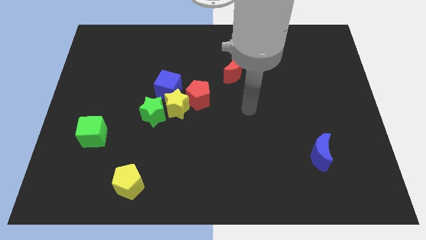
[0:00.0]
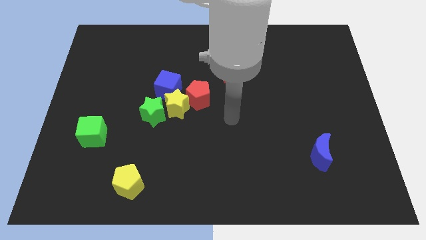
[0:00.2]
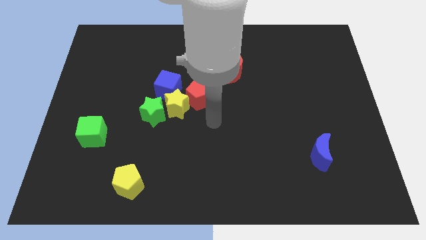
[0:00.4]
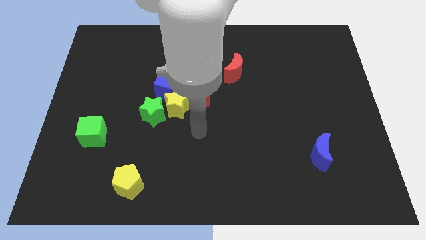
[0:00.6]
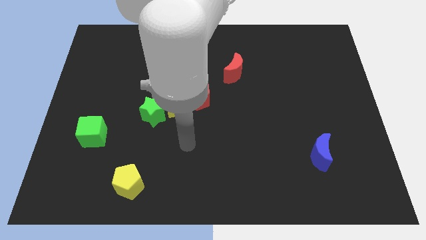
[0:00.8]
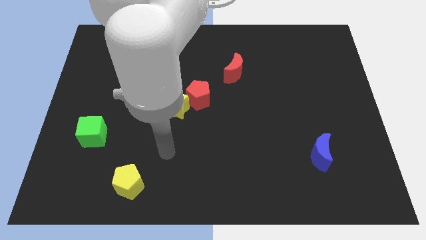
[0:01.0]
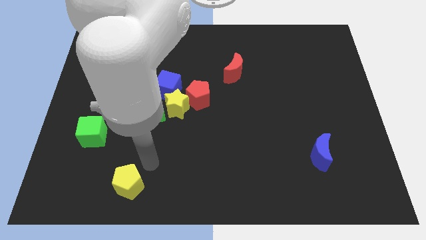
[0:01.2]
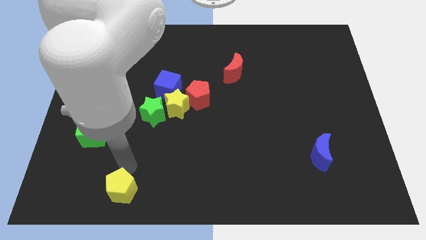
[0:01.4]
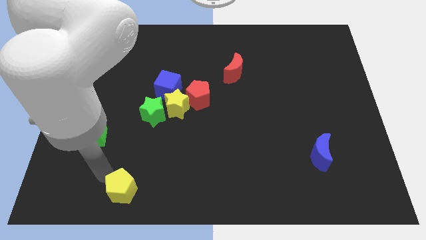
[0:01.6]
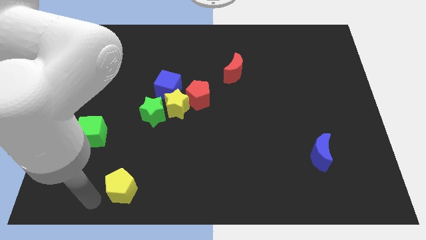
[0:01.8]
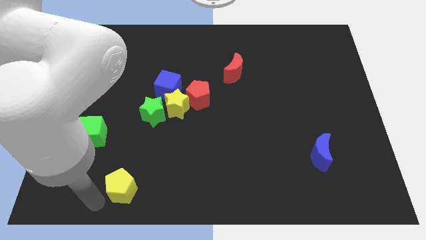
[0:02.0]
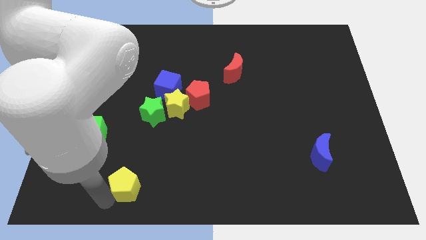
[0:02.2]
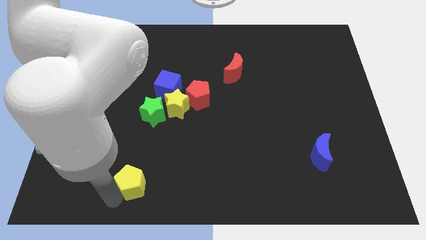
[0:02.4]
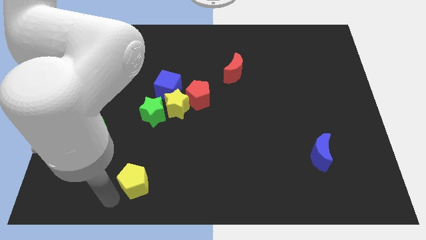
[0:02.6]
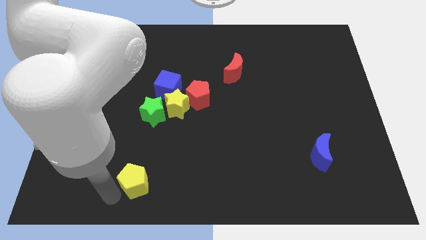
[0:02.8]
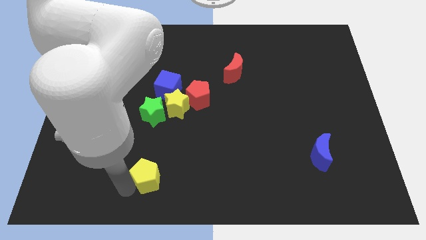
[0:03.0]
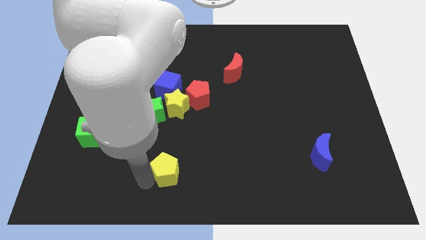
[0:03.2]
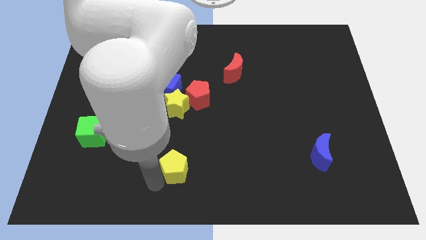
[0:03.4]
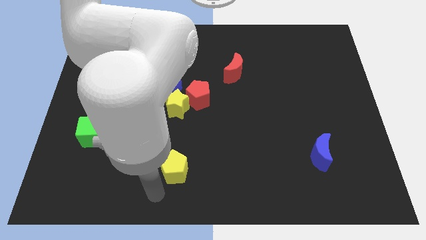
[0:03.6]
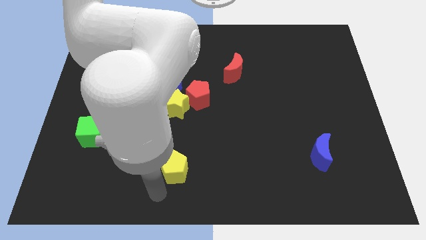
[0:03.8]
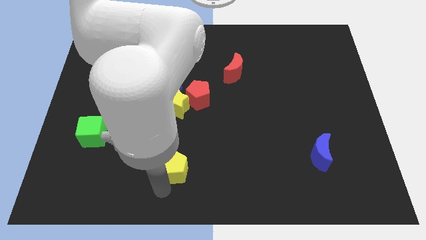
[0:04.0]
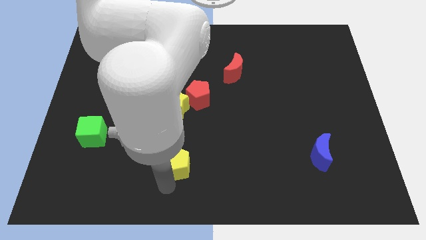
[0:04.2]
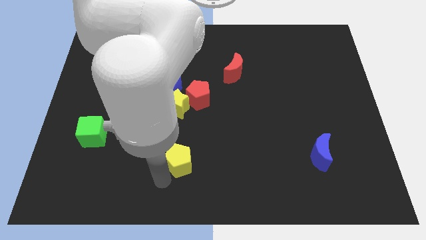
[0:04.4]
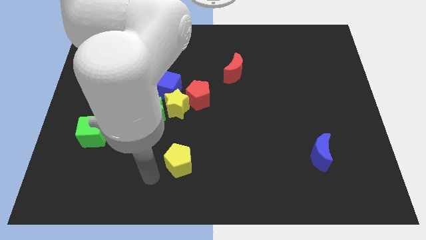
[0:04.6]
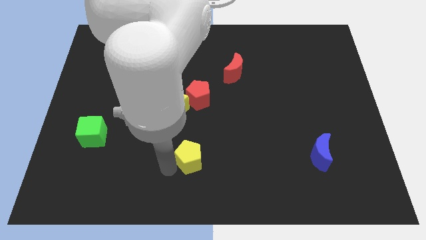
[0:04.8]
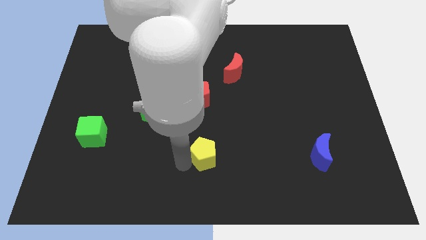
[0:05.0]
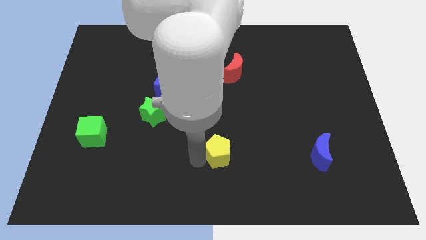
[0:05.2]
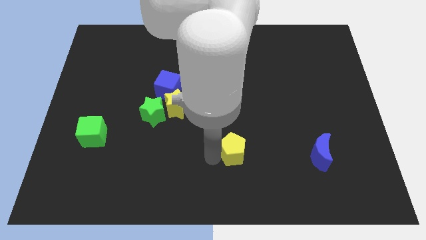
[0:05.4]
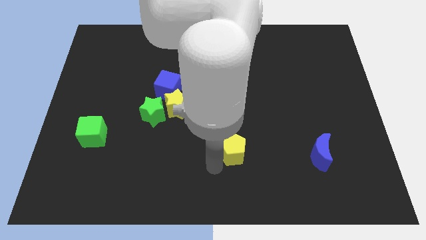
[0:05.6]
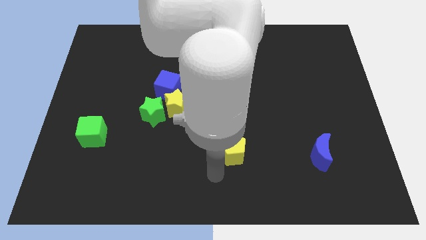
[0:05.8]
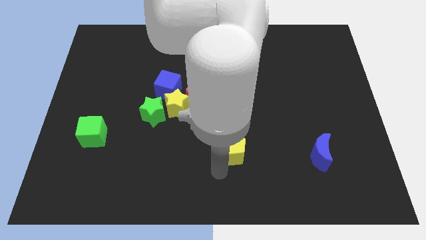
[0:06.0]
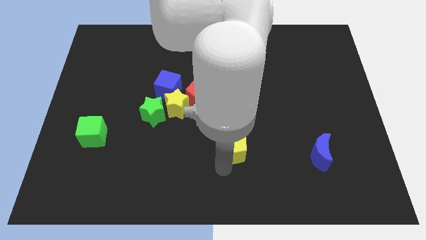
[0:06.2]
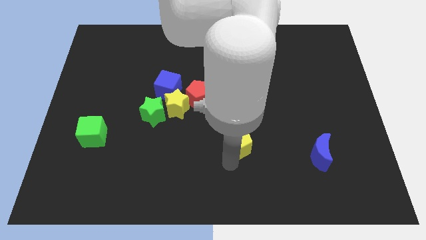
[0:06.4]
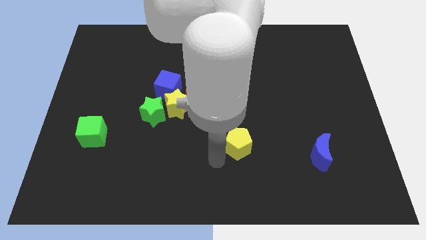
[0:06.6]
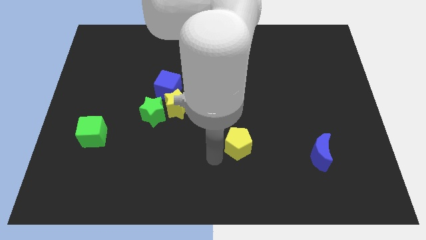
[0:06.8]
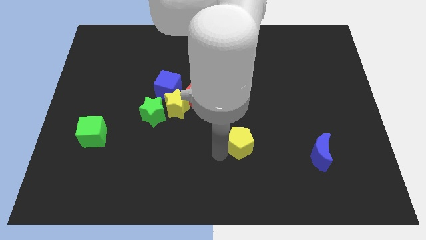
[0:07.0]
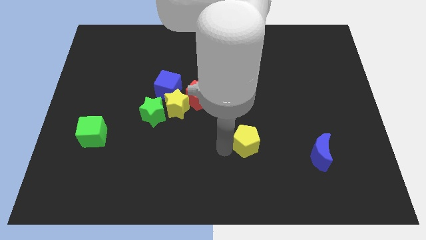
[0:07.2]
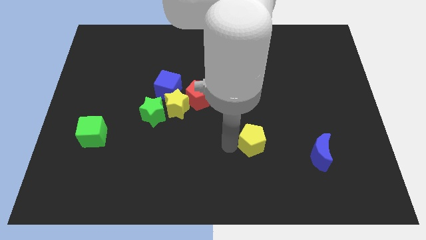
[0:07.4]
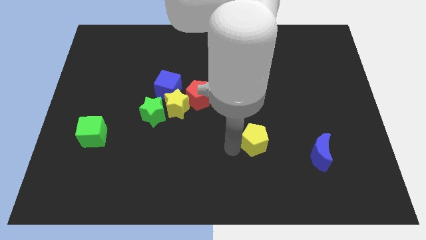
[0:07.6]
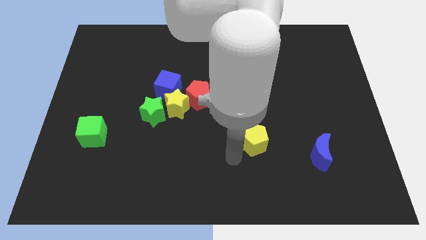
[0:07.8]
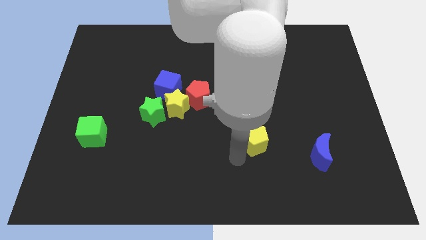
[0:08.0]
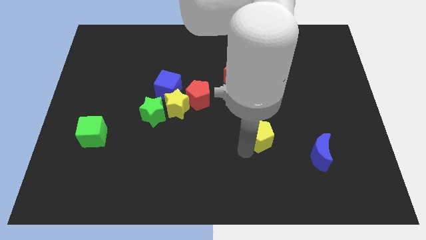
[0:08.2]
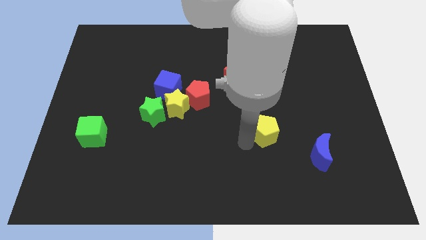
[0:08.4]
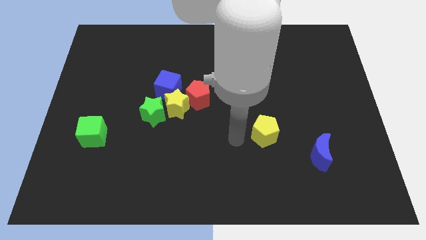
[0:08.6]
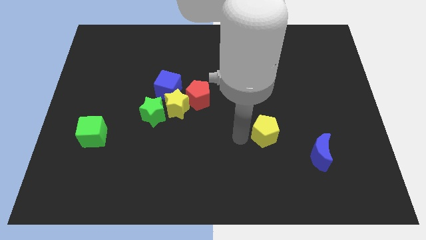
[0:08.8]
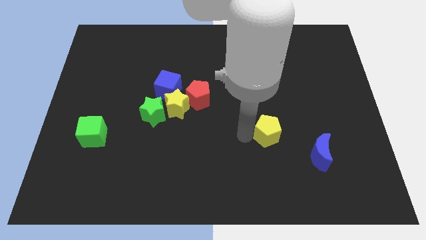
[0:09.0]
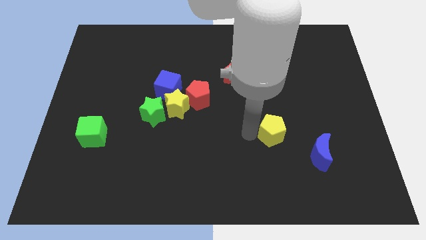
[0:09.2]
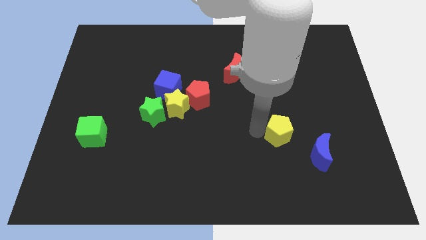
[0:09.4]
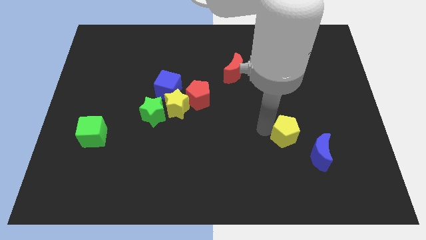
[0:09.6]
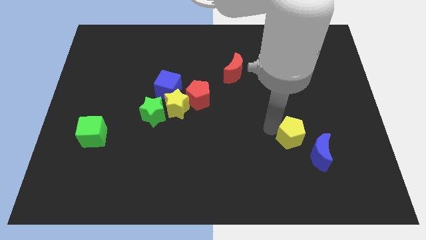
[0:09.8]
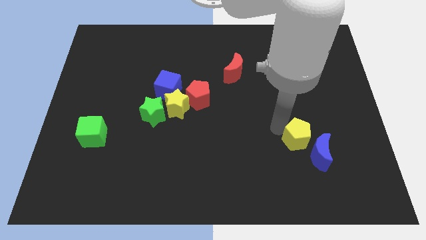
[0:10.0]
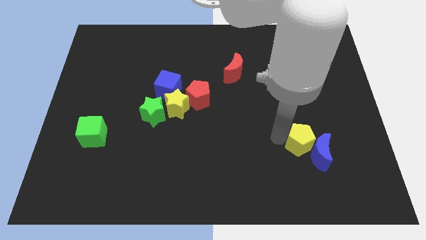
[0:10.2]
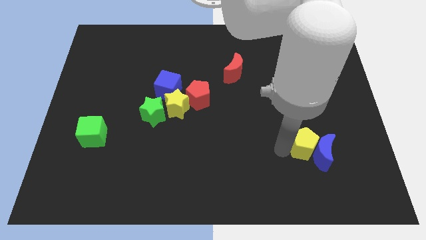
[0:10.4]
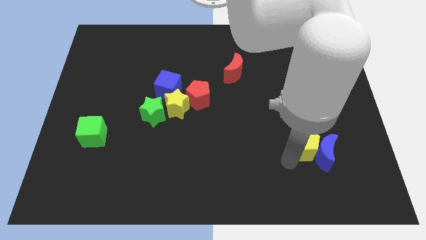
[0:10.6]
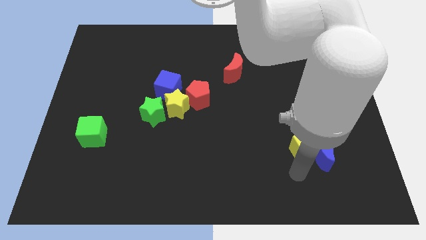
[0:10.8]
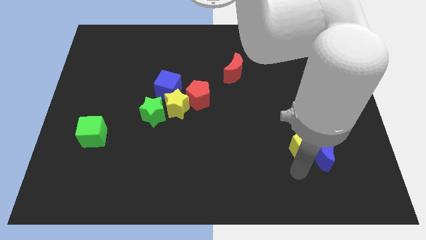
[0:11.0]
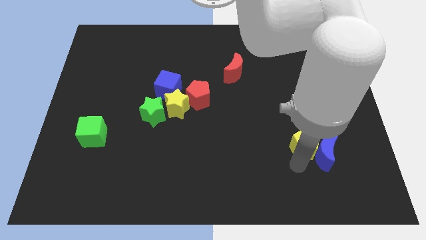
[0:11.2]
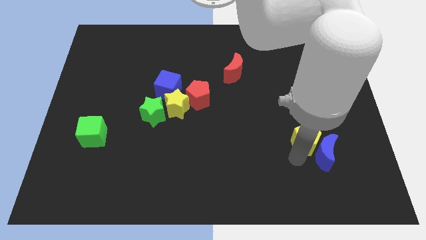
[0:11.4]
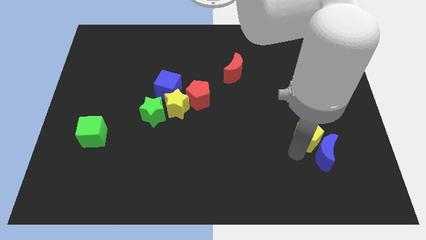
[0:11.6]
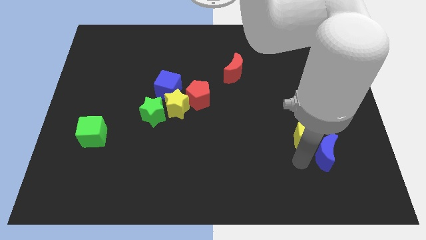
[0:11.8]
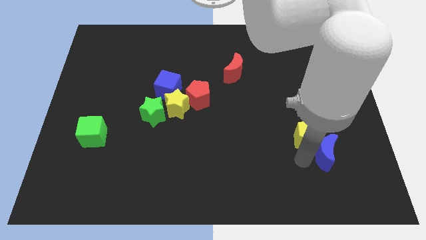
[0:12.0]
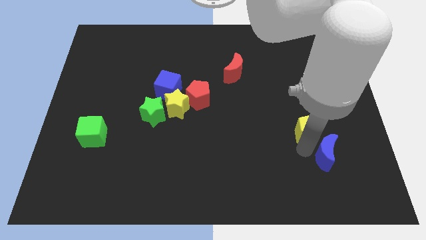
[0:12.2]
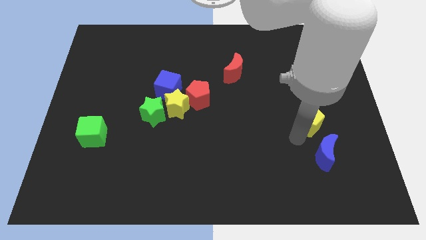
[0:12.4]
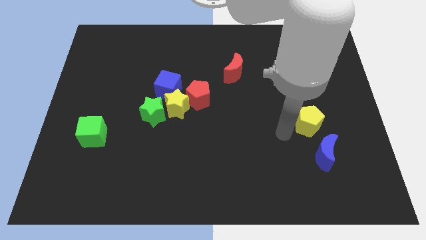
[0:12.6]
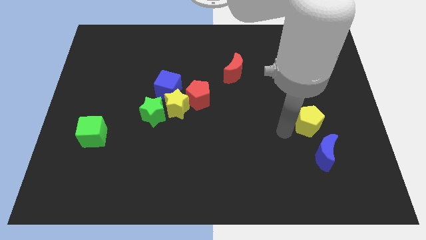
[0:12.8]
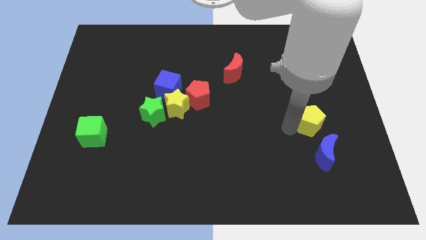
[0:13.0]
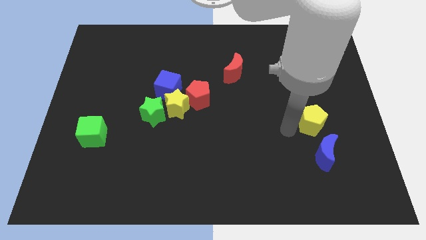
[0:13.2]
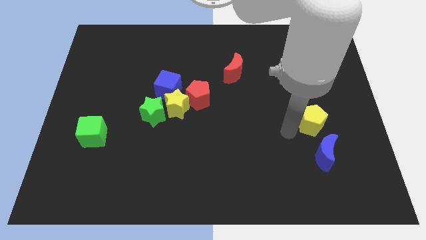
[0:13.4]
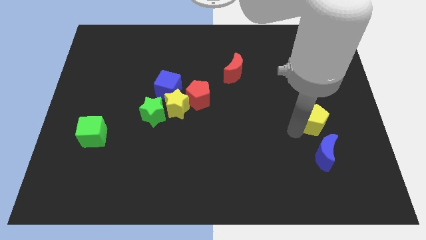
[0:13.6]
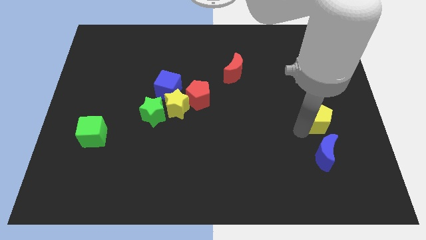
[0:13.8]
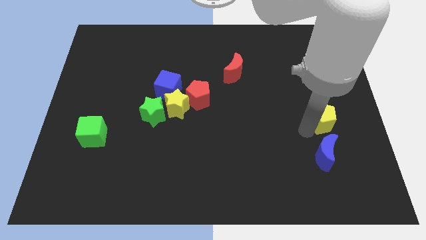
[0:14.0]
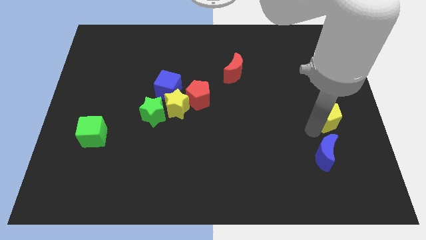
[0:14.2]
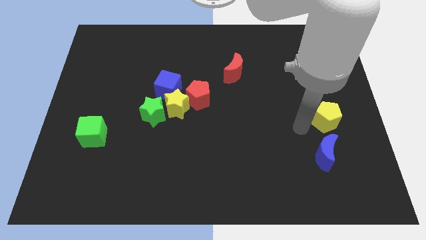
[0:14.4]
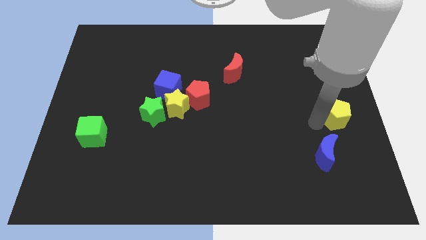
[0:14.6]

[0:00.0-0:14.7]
put the yellow pentagon to the center right
